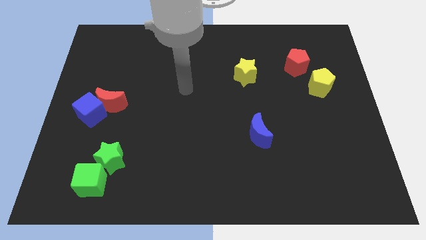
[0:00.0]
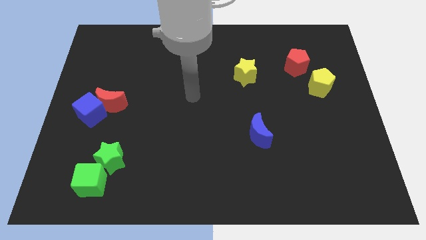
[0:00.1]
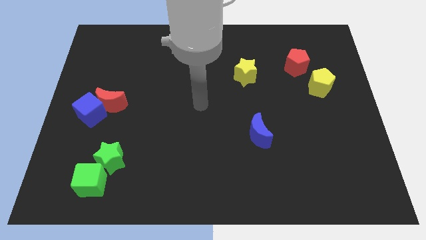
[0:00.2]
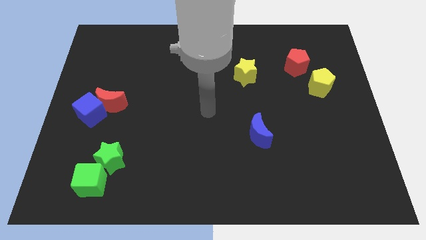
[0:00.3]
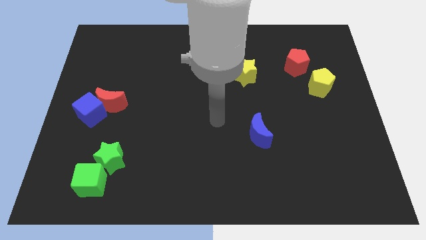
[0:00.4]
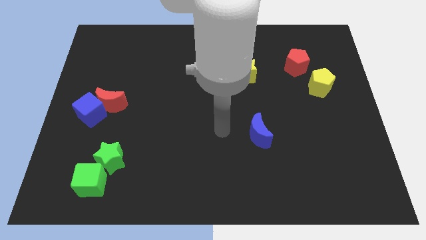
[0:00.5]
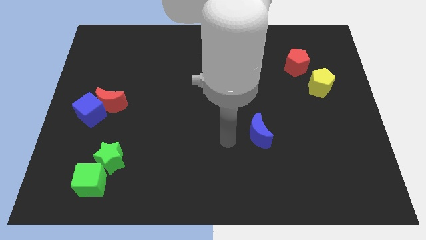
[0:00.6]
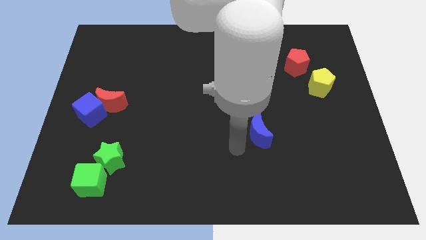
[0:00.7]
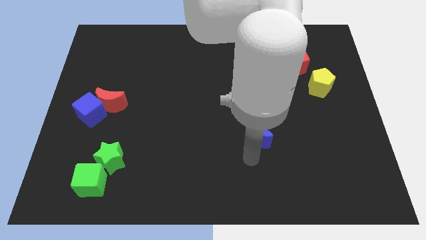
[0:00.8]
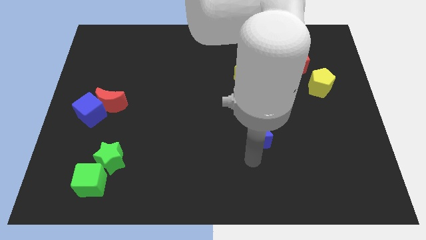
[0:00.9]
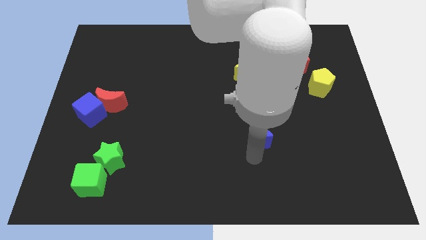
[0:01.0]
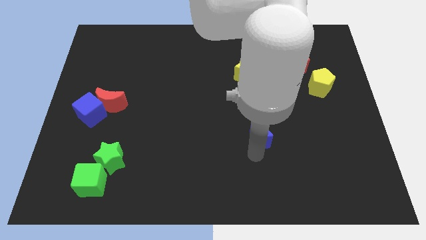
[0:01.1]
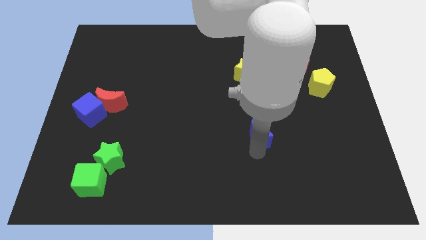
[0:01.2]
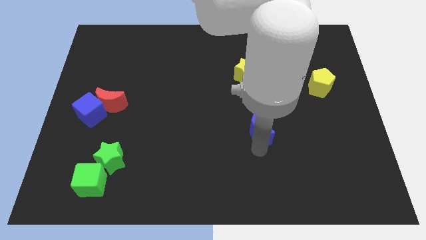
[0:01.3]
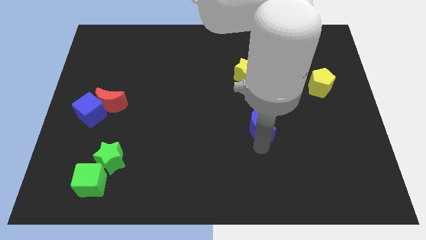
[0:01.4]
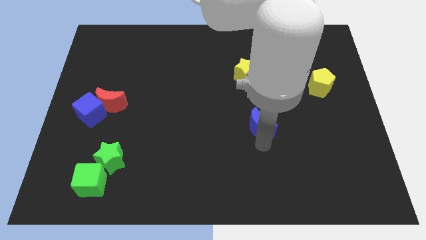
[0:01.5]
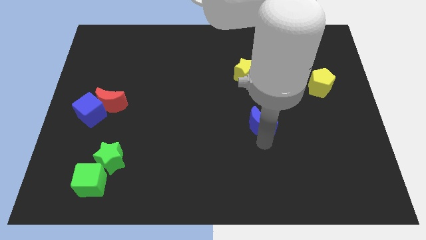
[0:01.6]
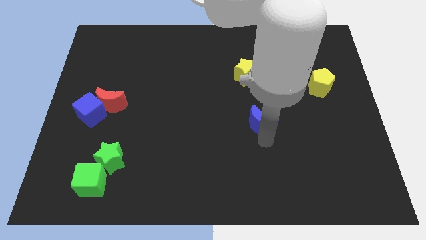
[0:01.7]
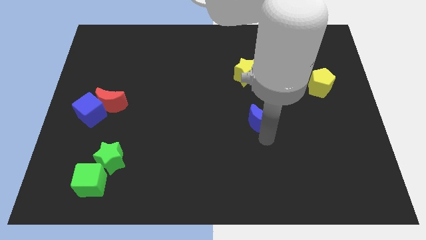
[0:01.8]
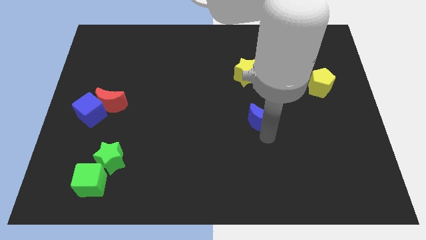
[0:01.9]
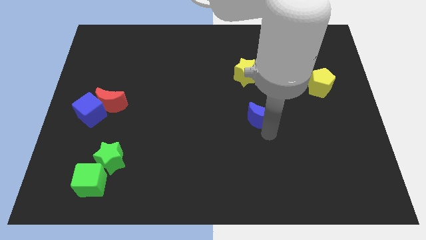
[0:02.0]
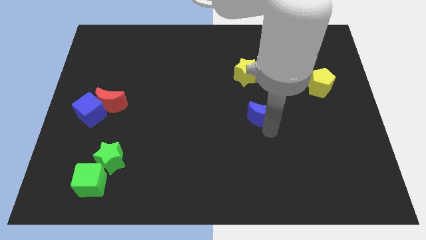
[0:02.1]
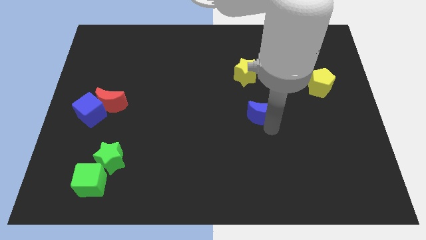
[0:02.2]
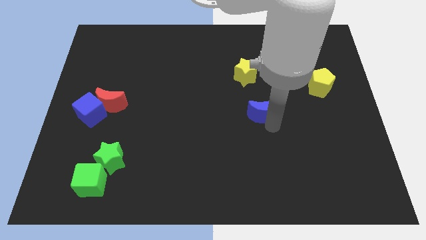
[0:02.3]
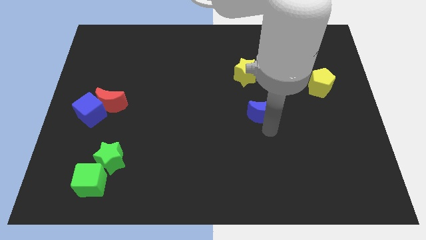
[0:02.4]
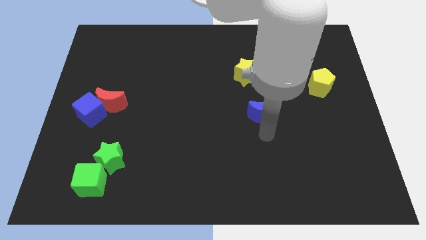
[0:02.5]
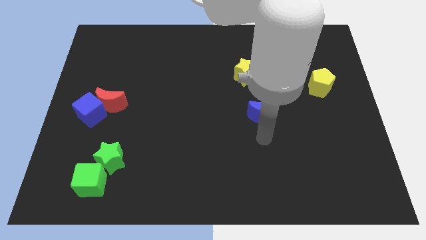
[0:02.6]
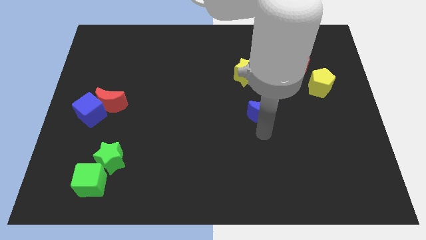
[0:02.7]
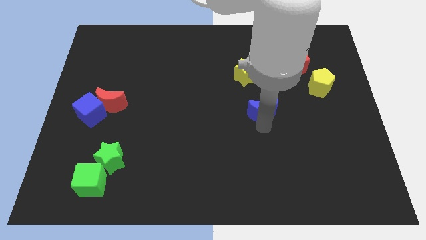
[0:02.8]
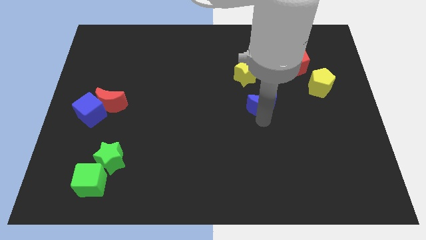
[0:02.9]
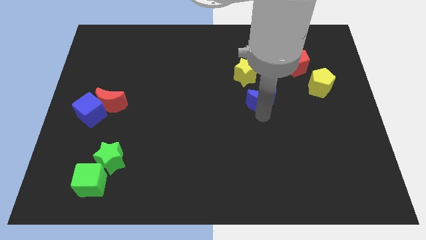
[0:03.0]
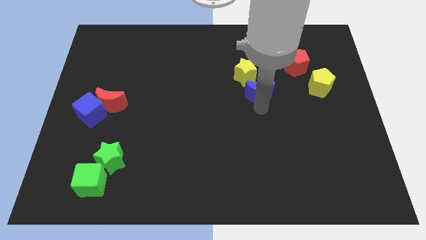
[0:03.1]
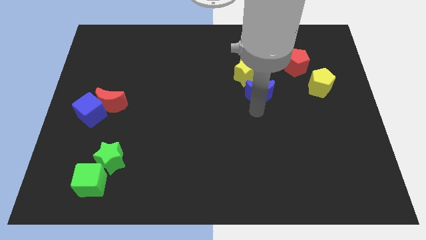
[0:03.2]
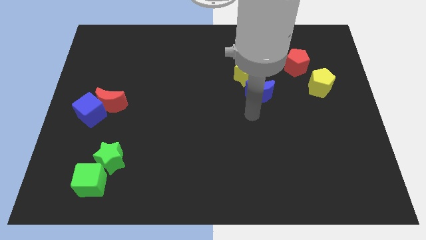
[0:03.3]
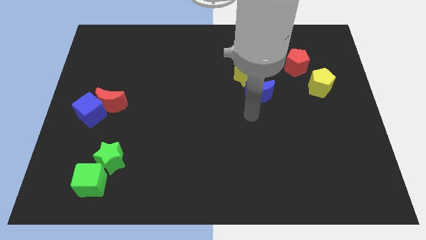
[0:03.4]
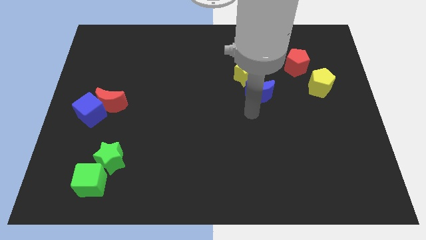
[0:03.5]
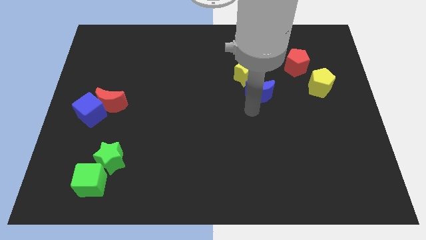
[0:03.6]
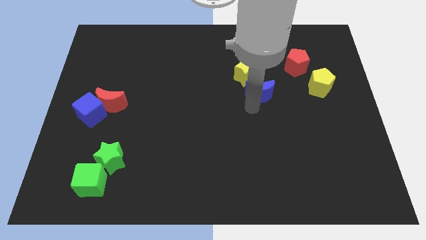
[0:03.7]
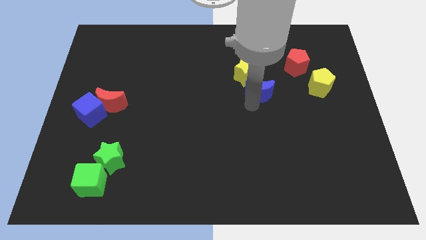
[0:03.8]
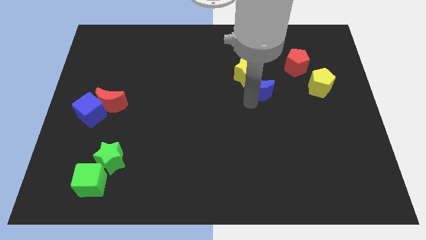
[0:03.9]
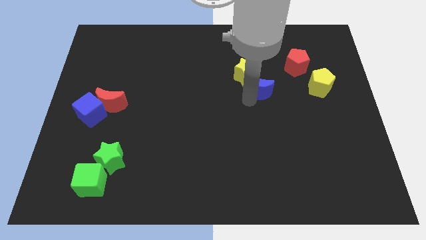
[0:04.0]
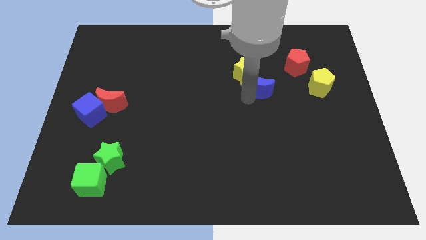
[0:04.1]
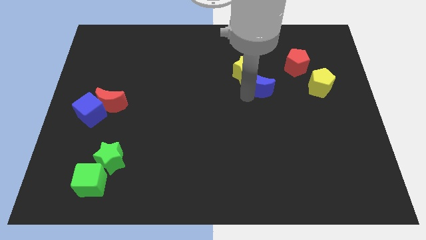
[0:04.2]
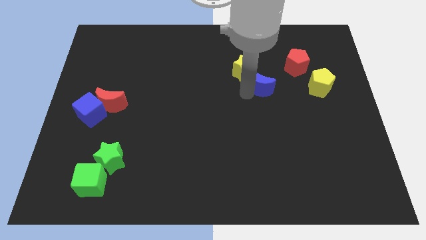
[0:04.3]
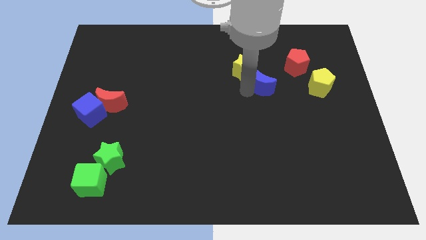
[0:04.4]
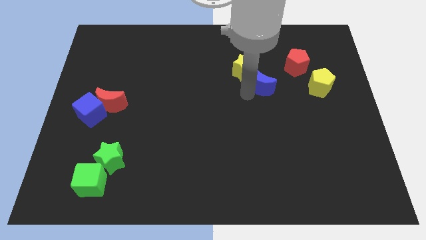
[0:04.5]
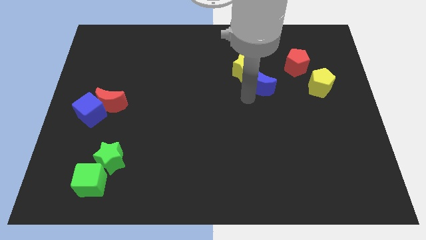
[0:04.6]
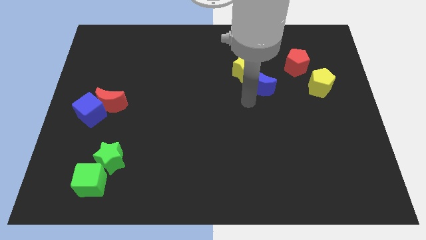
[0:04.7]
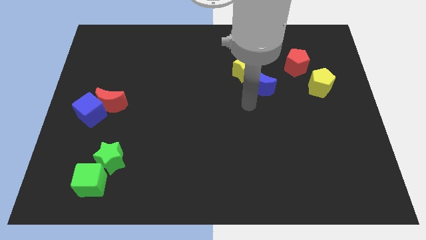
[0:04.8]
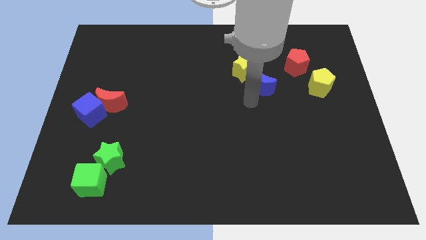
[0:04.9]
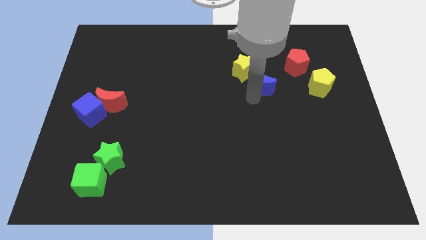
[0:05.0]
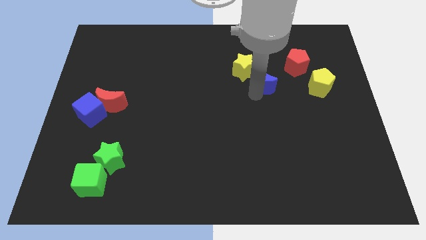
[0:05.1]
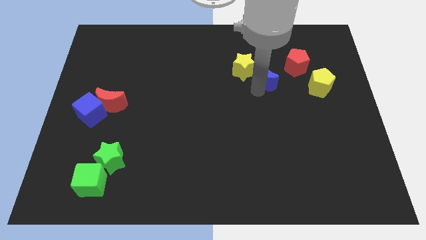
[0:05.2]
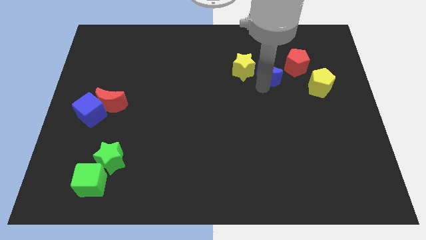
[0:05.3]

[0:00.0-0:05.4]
put the blue moon just left of the red pentagon

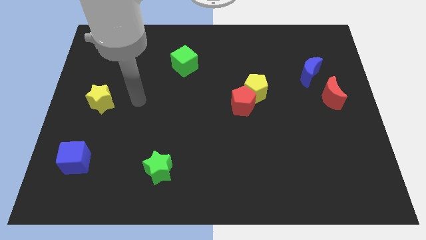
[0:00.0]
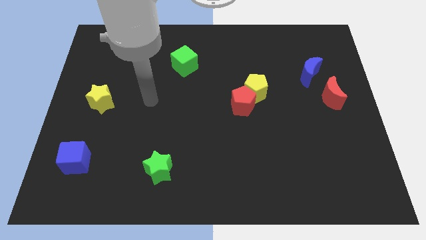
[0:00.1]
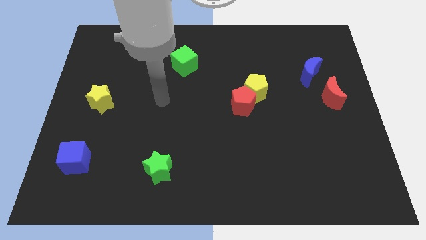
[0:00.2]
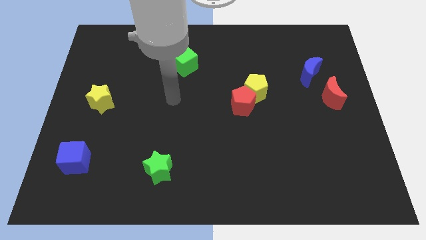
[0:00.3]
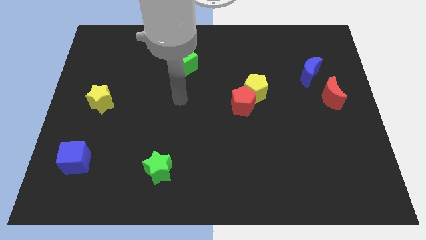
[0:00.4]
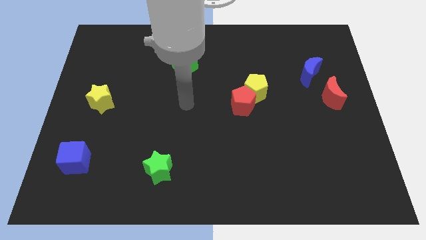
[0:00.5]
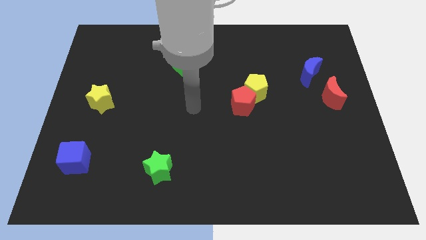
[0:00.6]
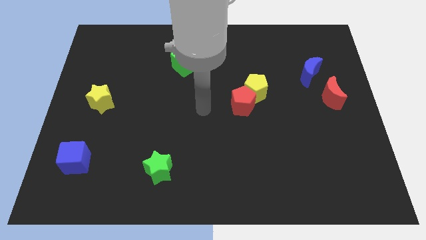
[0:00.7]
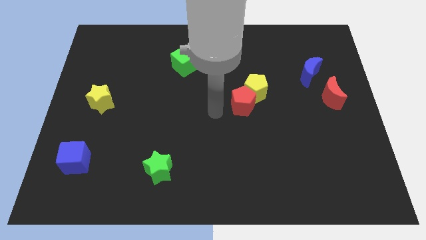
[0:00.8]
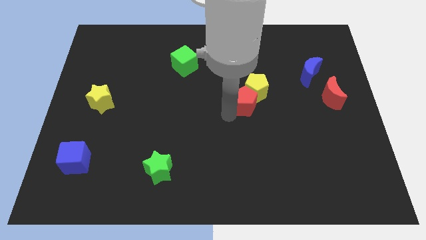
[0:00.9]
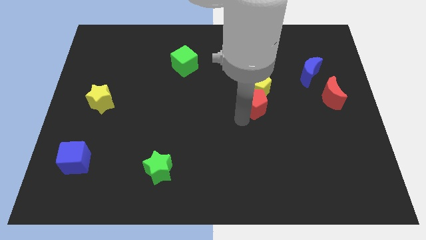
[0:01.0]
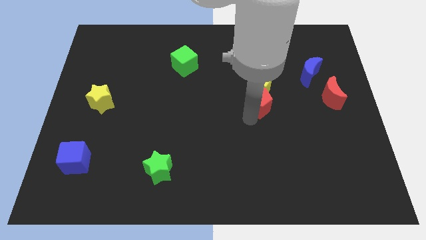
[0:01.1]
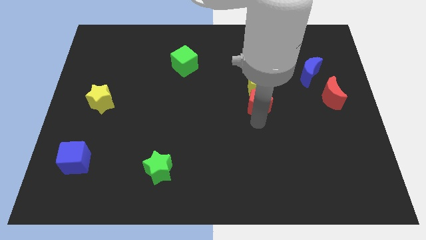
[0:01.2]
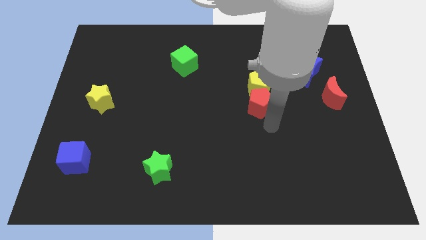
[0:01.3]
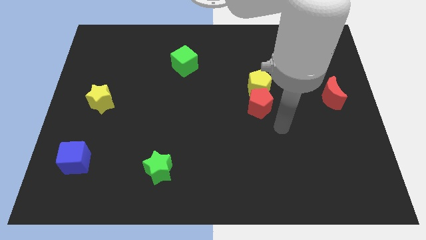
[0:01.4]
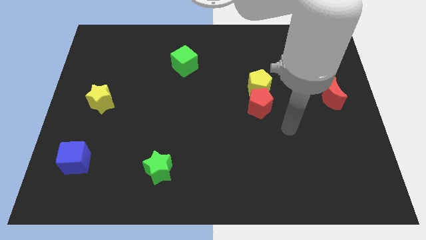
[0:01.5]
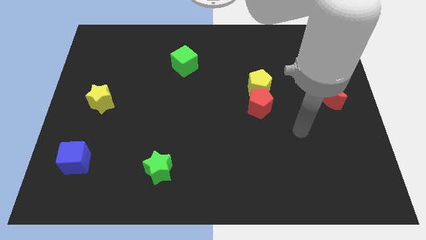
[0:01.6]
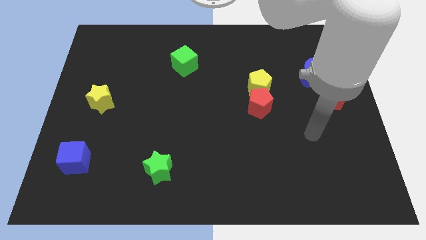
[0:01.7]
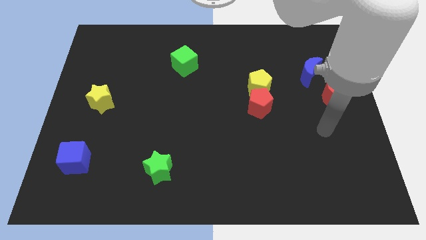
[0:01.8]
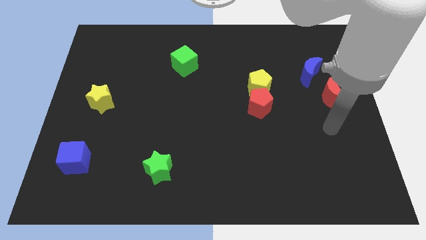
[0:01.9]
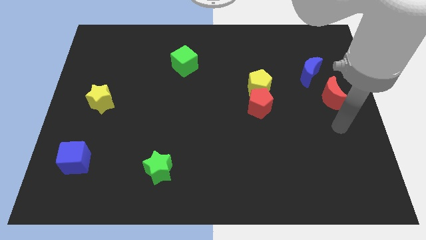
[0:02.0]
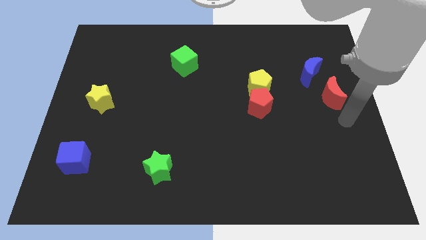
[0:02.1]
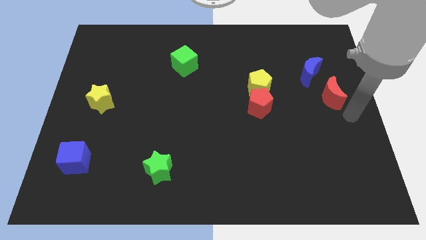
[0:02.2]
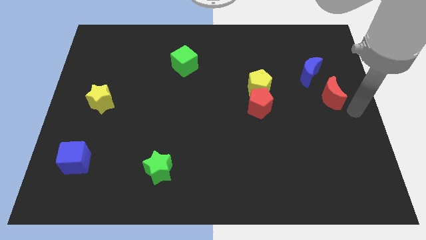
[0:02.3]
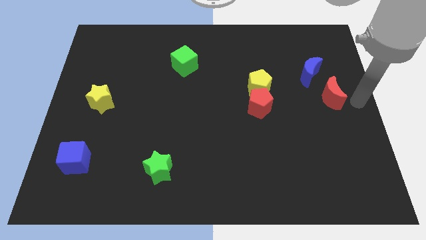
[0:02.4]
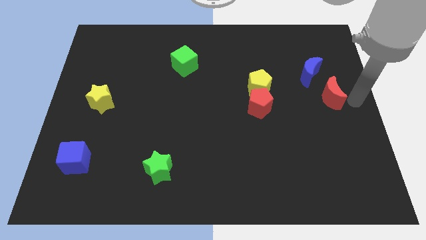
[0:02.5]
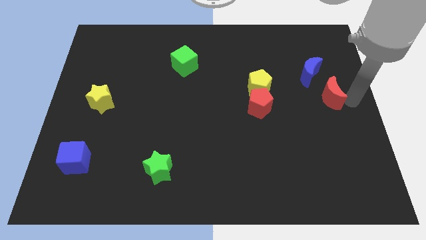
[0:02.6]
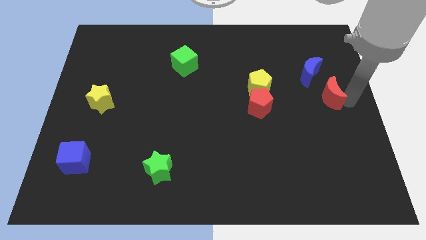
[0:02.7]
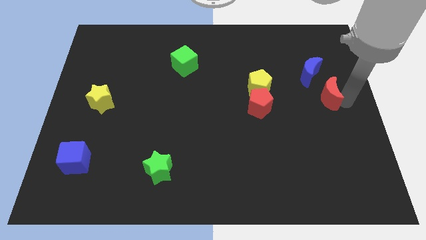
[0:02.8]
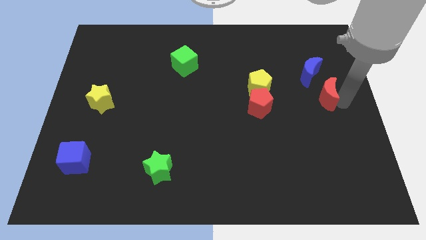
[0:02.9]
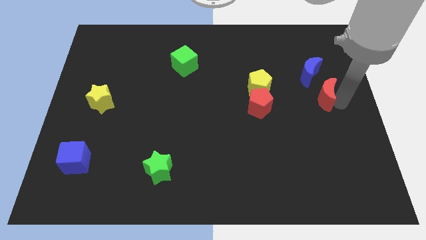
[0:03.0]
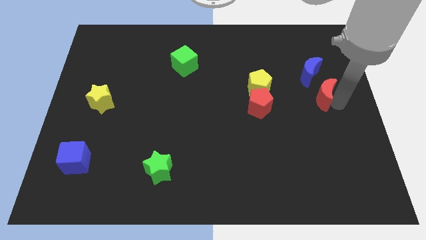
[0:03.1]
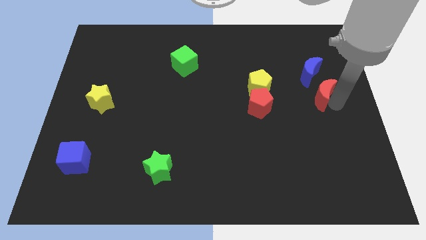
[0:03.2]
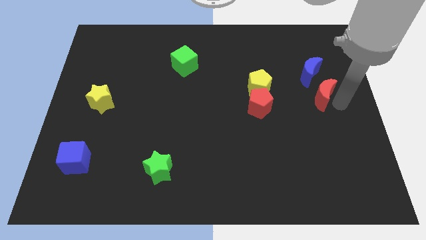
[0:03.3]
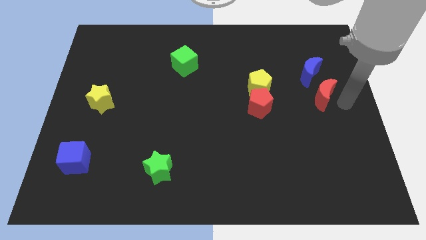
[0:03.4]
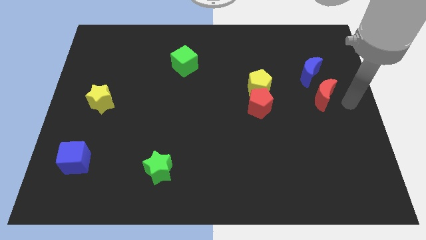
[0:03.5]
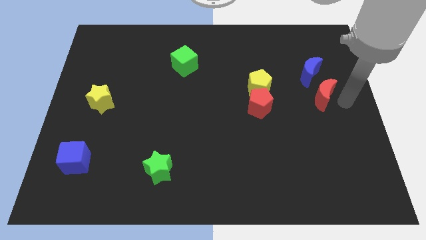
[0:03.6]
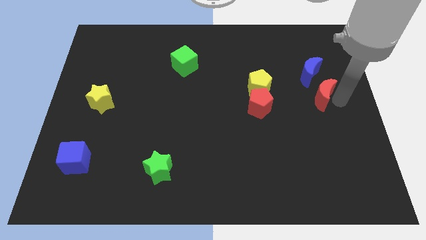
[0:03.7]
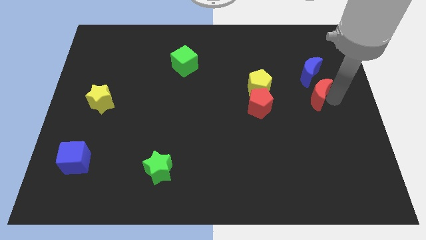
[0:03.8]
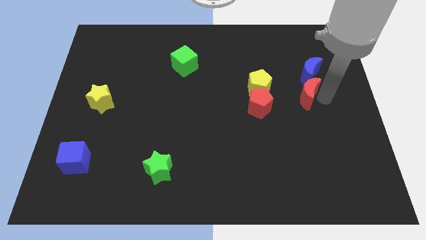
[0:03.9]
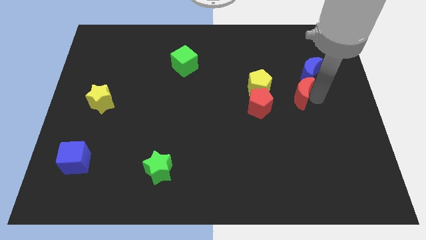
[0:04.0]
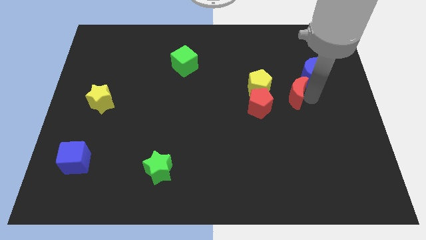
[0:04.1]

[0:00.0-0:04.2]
slide the red moon to the top right of the red pentagon
